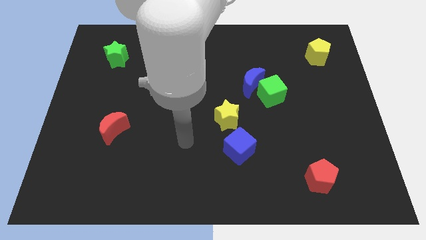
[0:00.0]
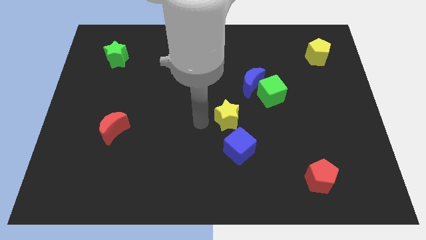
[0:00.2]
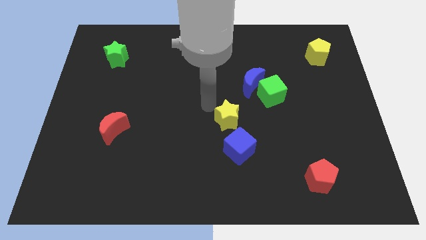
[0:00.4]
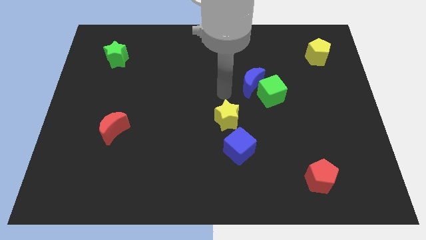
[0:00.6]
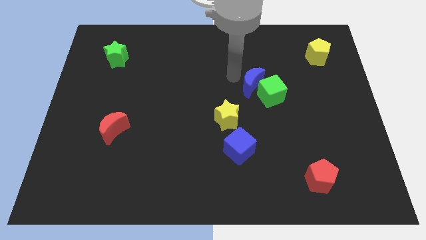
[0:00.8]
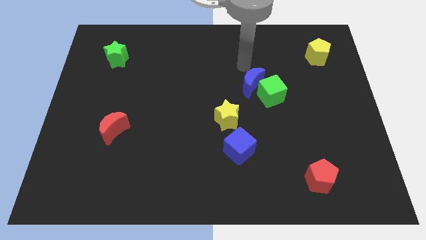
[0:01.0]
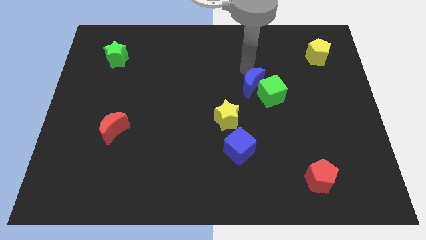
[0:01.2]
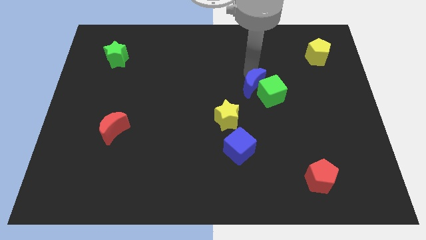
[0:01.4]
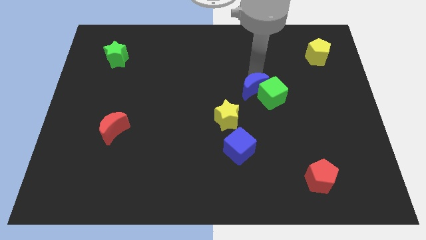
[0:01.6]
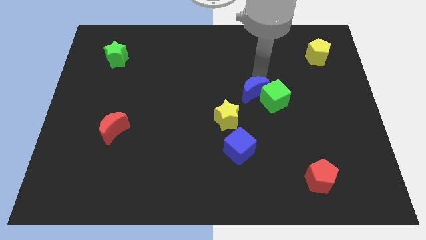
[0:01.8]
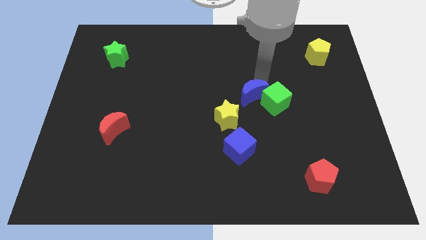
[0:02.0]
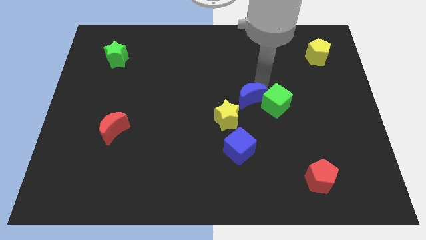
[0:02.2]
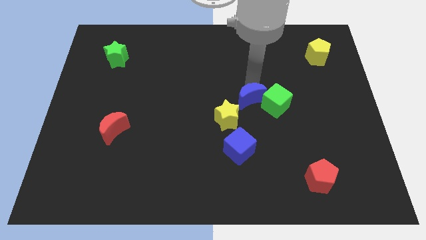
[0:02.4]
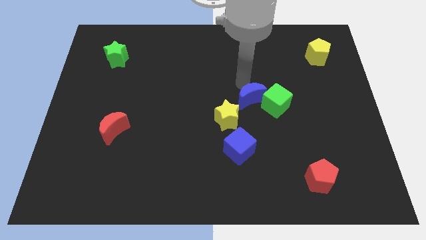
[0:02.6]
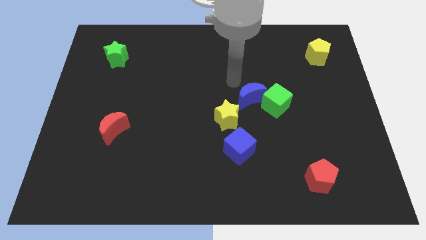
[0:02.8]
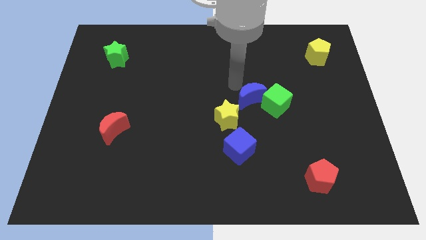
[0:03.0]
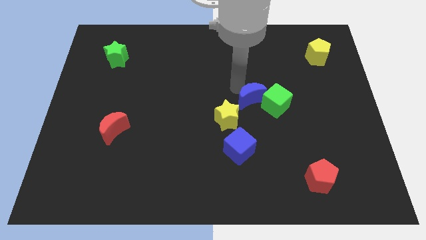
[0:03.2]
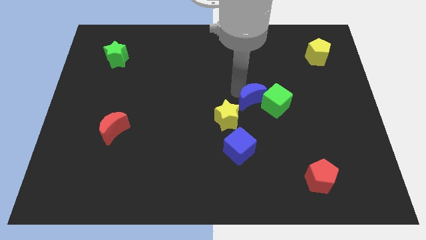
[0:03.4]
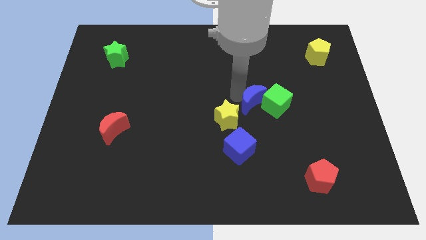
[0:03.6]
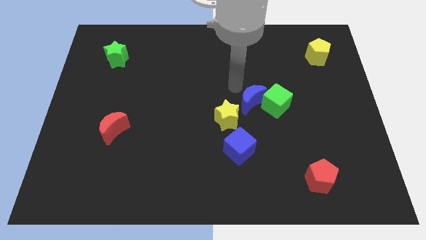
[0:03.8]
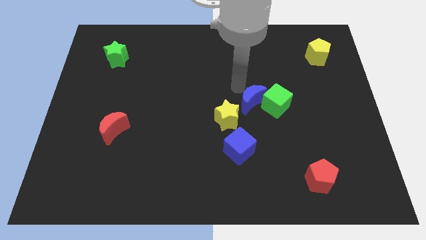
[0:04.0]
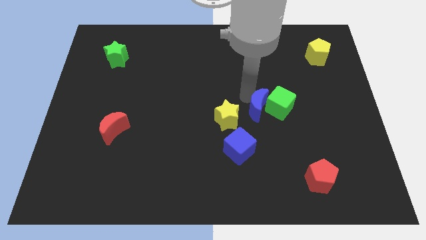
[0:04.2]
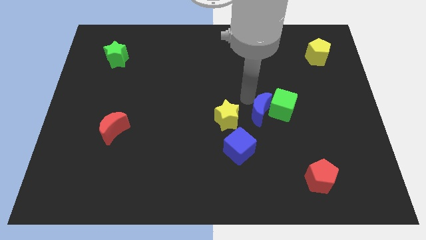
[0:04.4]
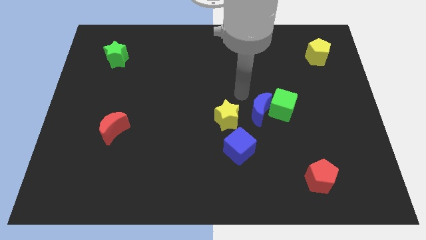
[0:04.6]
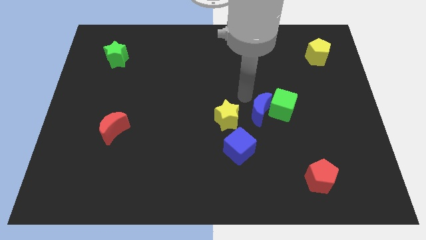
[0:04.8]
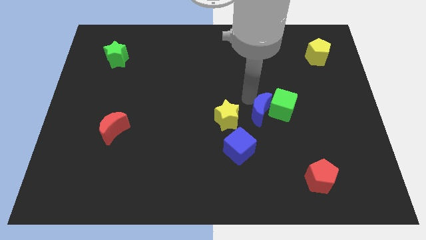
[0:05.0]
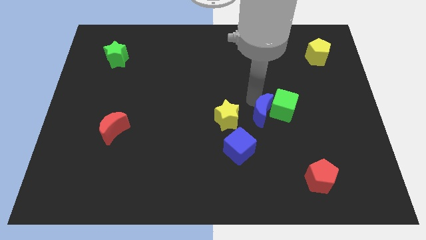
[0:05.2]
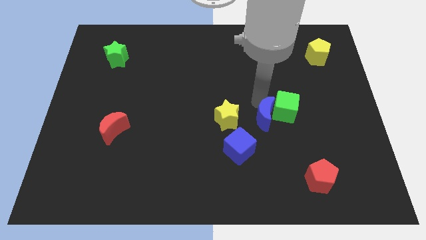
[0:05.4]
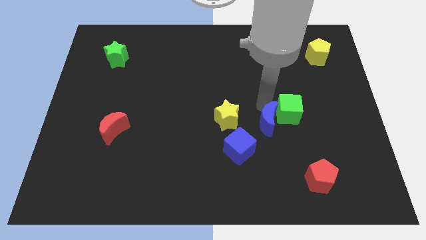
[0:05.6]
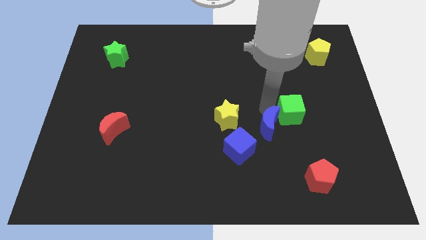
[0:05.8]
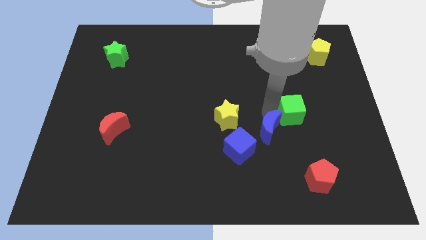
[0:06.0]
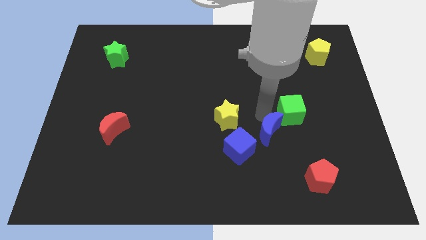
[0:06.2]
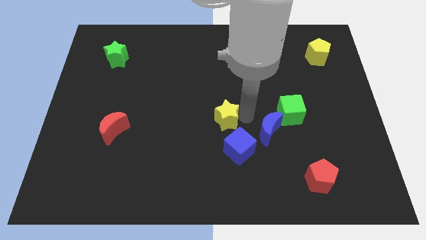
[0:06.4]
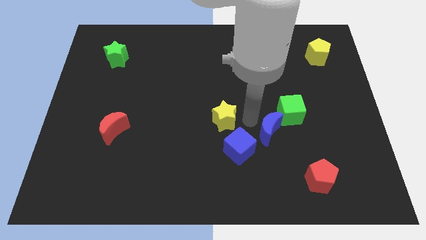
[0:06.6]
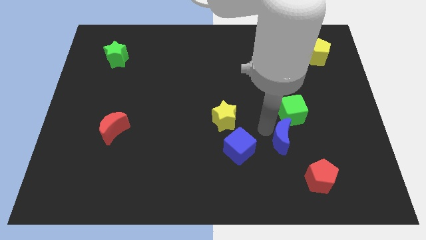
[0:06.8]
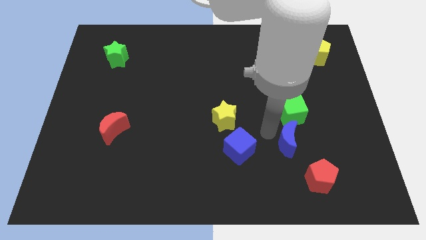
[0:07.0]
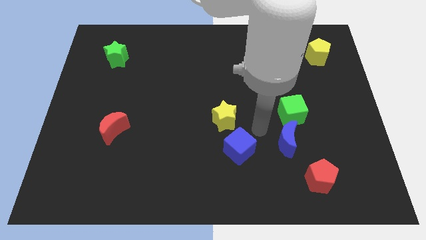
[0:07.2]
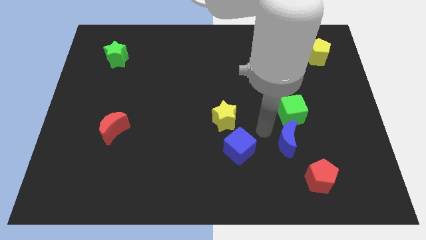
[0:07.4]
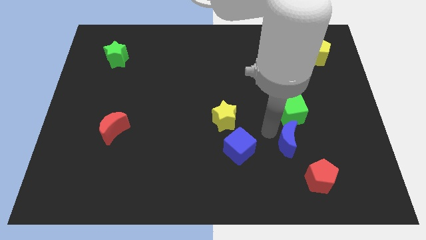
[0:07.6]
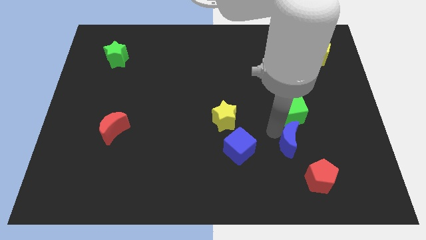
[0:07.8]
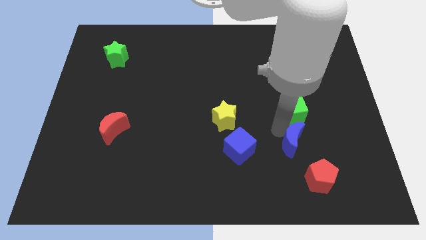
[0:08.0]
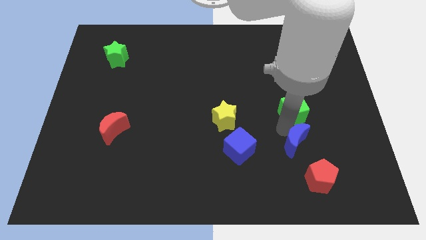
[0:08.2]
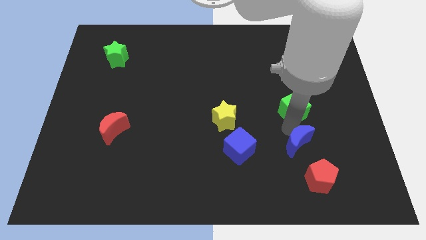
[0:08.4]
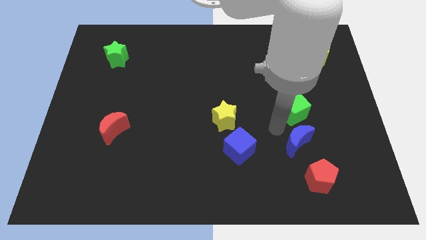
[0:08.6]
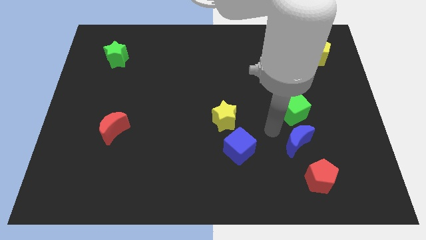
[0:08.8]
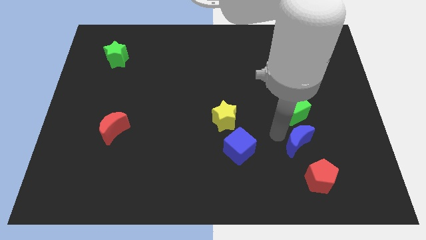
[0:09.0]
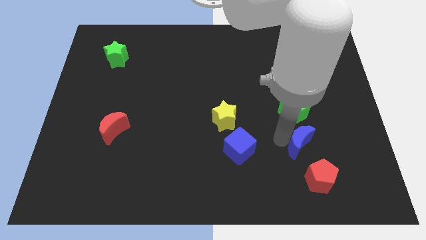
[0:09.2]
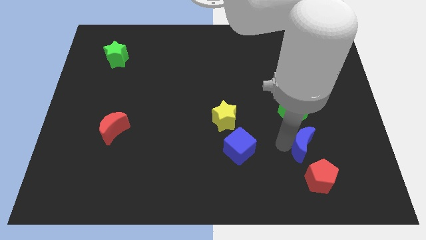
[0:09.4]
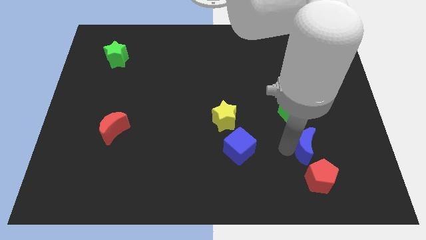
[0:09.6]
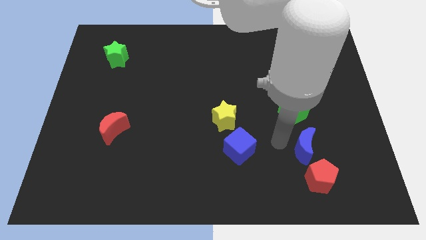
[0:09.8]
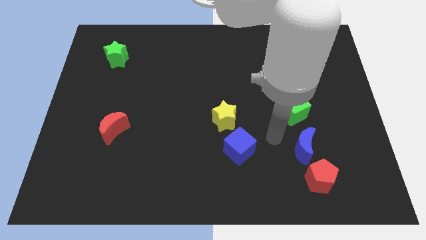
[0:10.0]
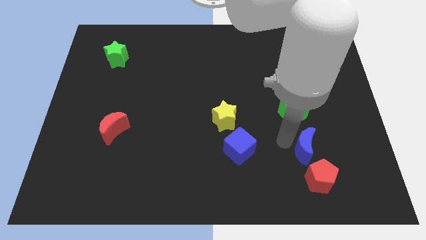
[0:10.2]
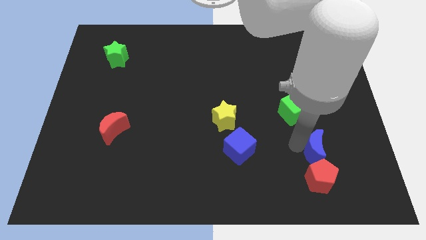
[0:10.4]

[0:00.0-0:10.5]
slide the blue moon diagonally up and to the right of the red pentagon

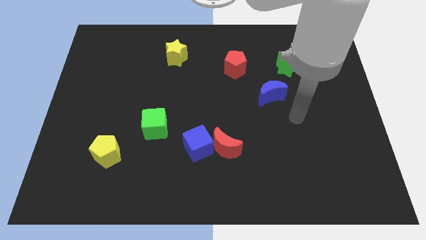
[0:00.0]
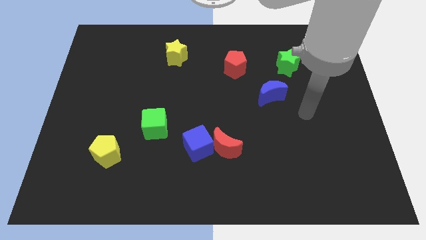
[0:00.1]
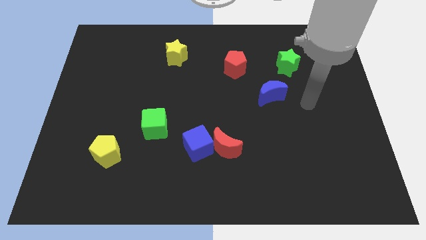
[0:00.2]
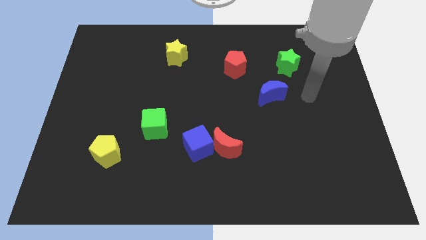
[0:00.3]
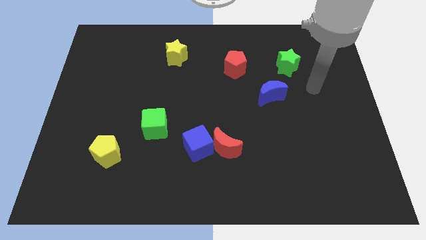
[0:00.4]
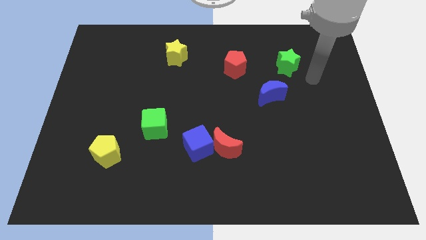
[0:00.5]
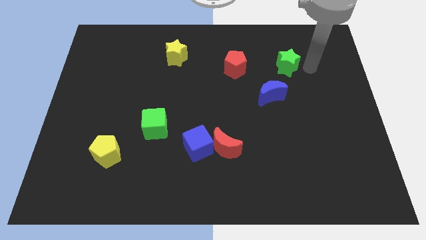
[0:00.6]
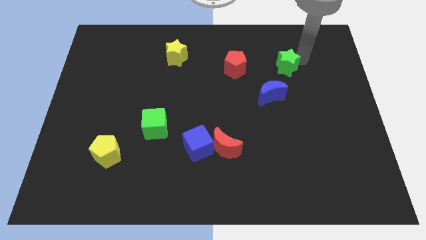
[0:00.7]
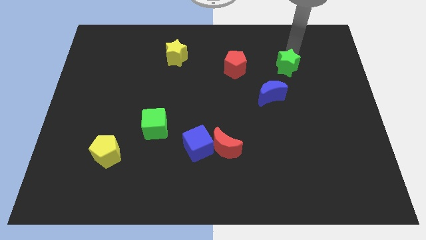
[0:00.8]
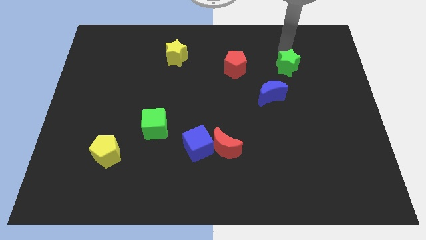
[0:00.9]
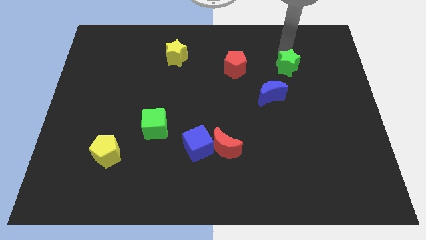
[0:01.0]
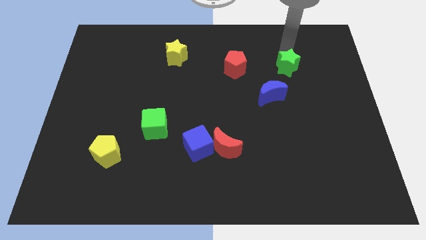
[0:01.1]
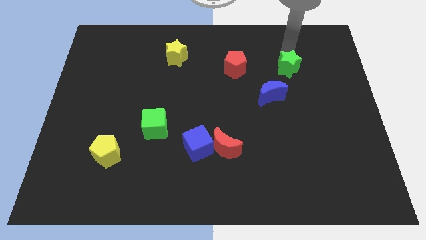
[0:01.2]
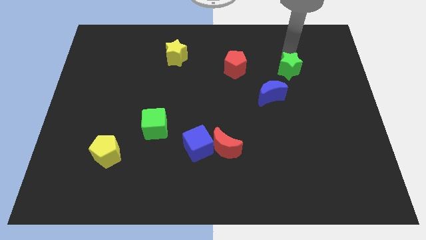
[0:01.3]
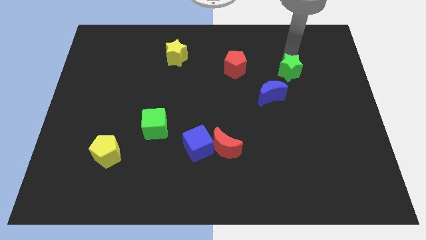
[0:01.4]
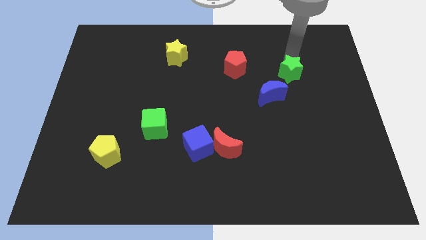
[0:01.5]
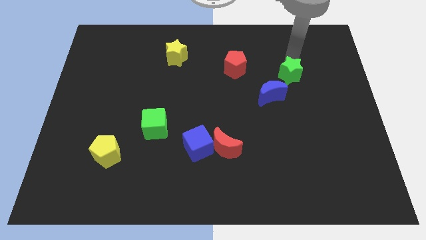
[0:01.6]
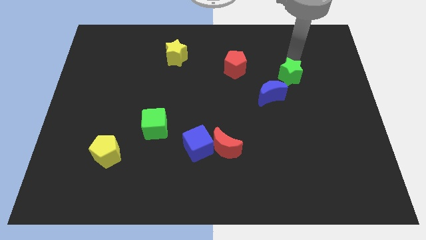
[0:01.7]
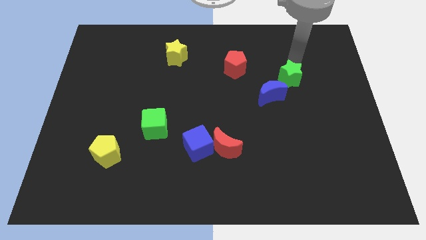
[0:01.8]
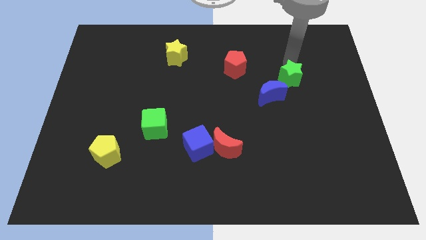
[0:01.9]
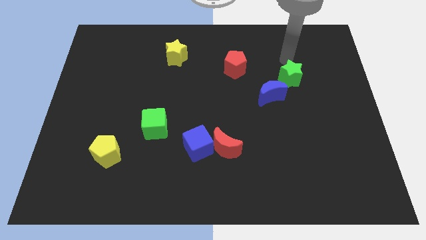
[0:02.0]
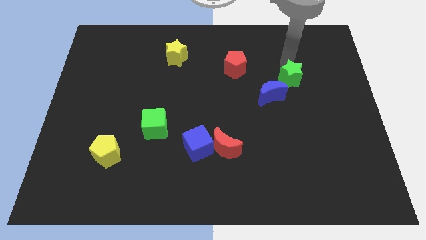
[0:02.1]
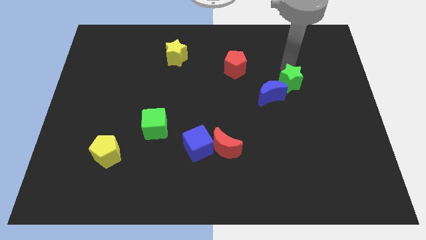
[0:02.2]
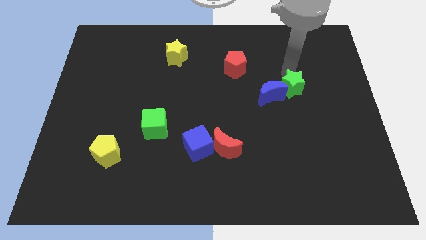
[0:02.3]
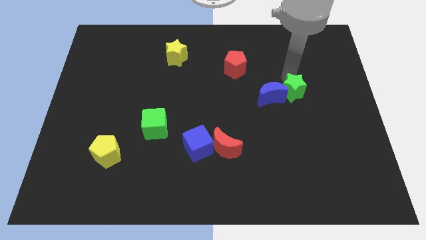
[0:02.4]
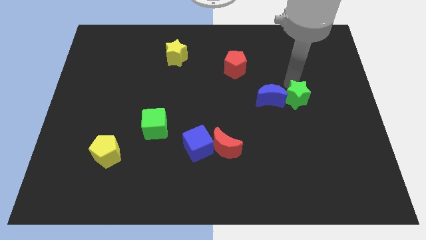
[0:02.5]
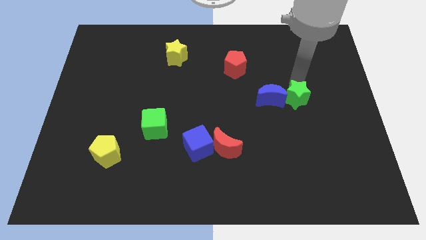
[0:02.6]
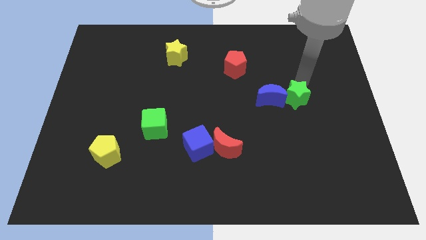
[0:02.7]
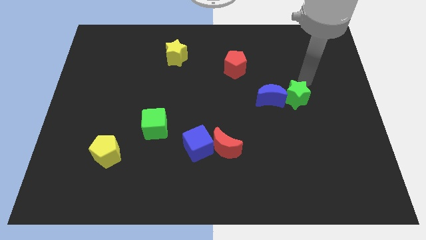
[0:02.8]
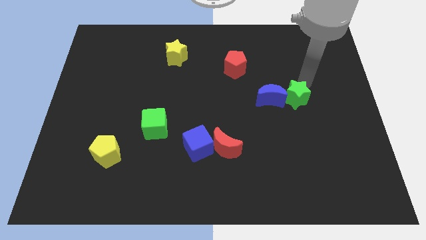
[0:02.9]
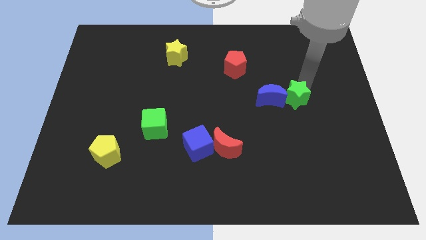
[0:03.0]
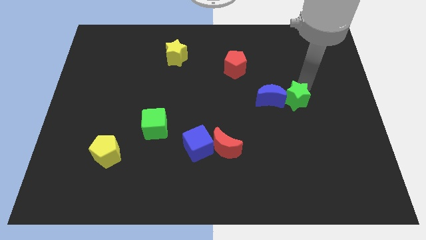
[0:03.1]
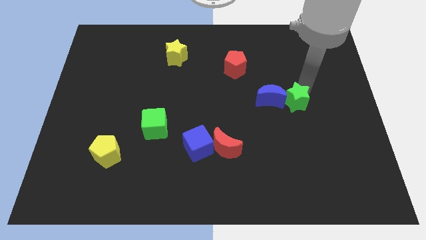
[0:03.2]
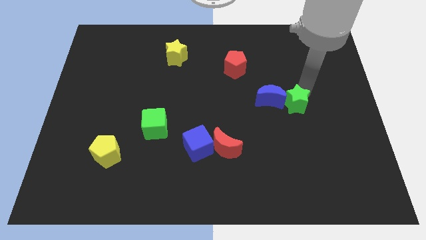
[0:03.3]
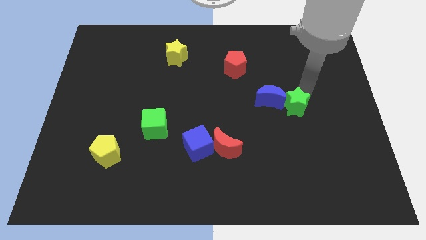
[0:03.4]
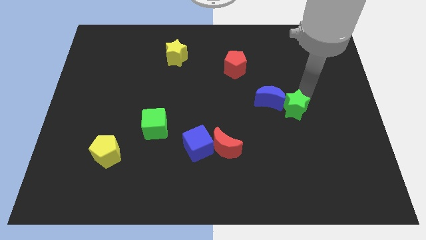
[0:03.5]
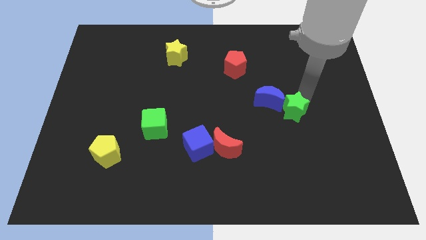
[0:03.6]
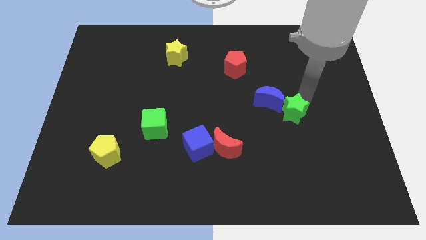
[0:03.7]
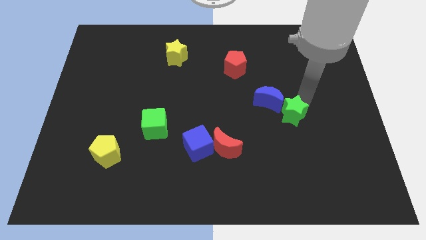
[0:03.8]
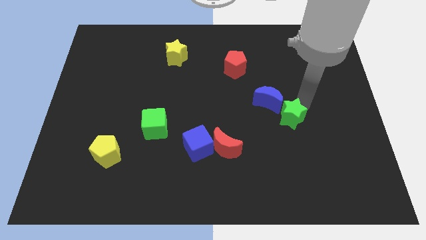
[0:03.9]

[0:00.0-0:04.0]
push the green star to the bottom of the blue moon
